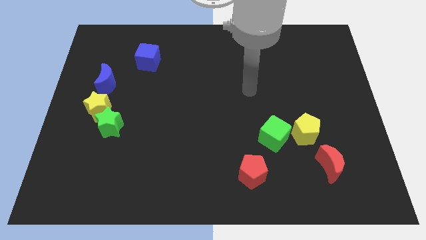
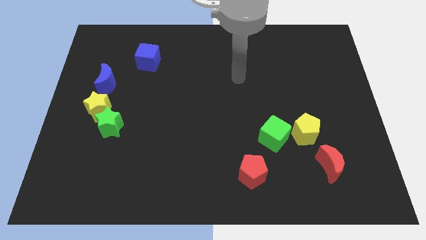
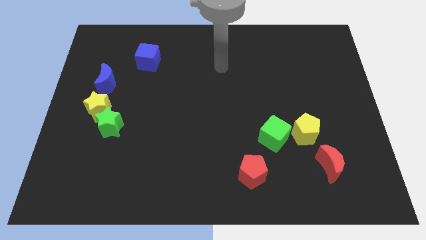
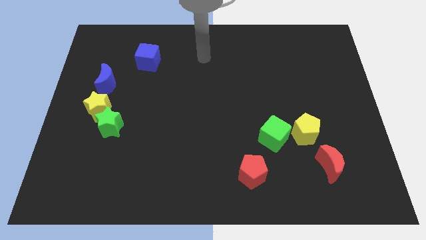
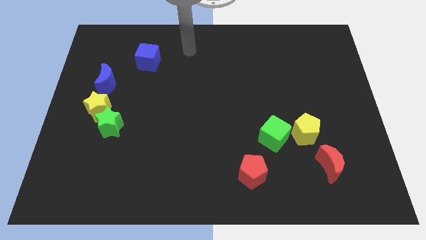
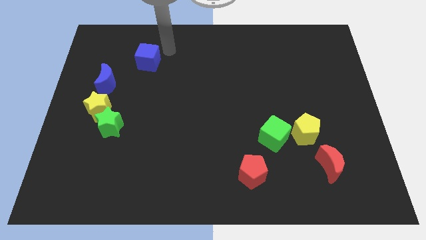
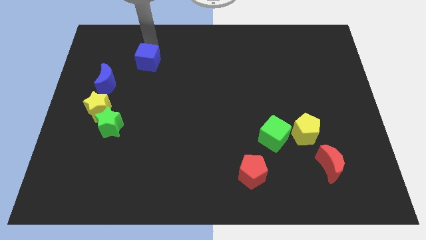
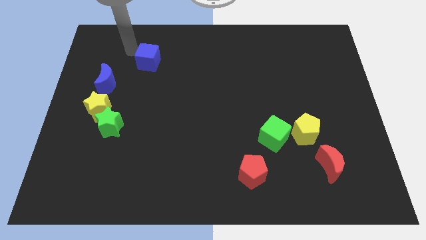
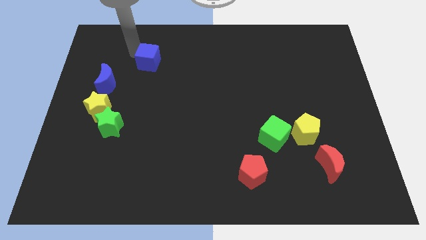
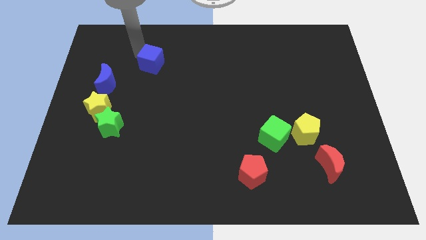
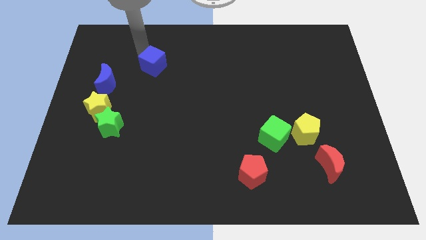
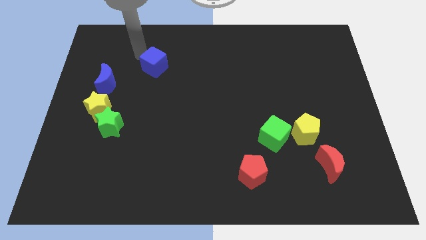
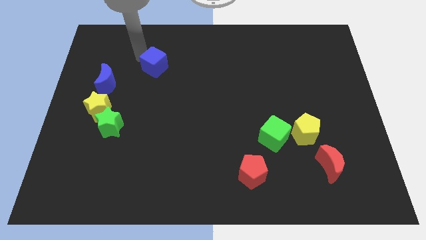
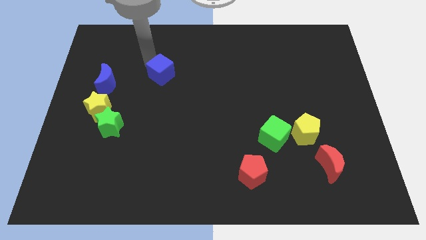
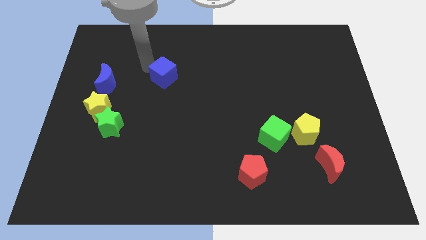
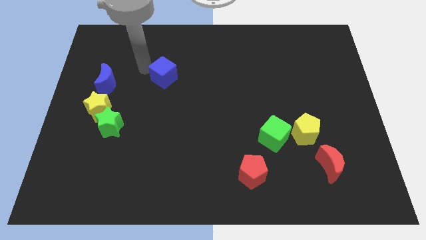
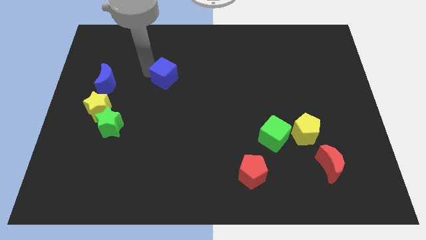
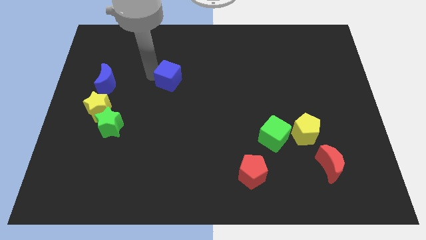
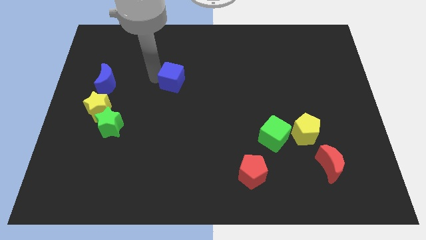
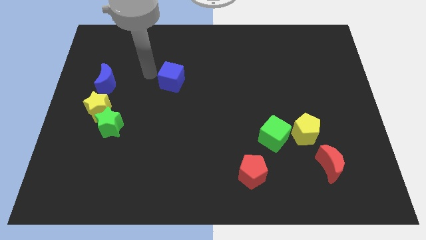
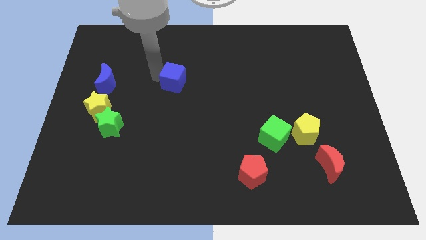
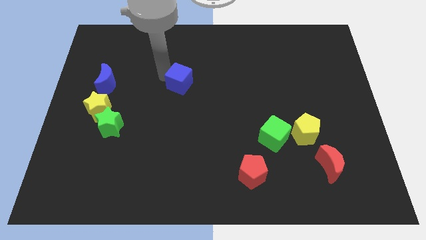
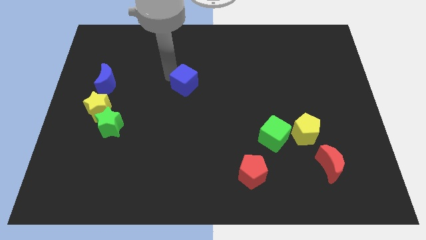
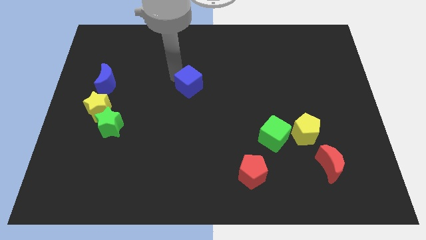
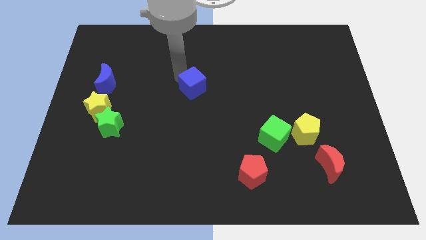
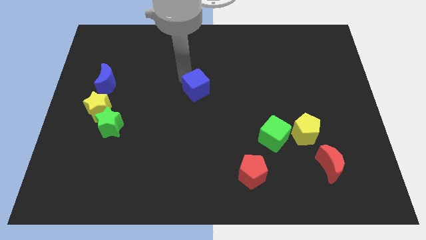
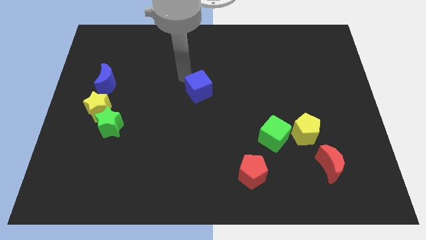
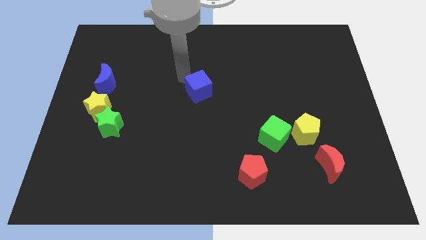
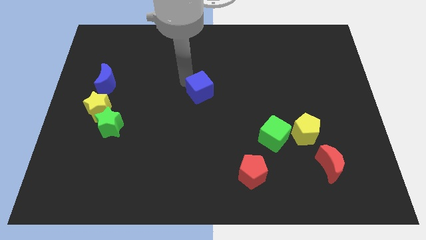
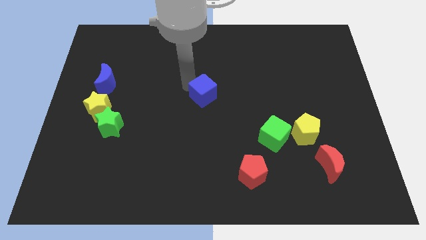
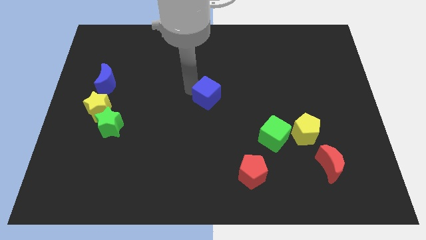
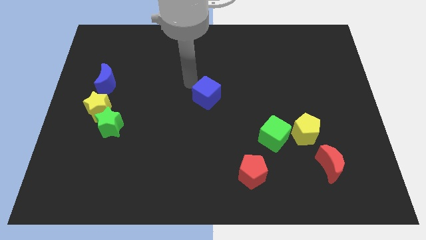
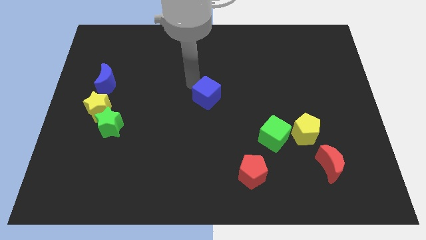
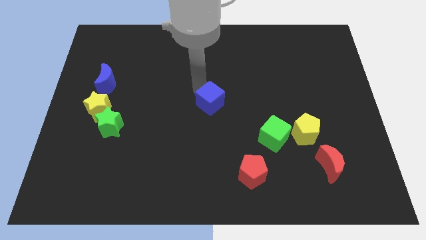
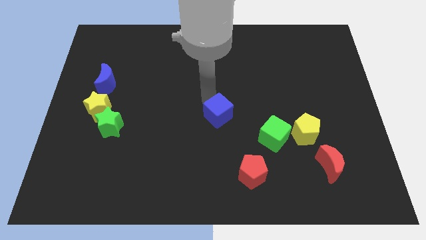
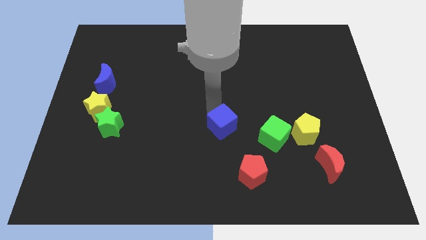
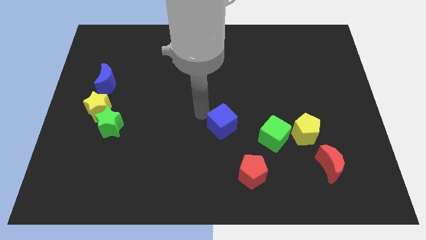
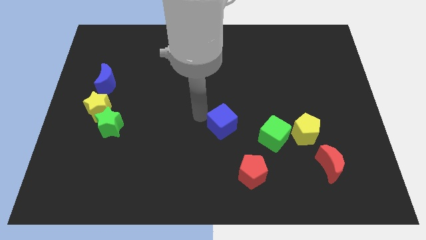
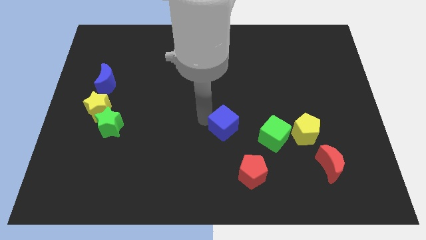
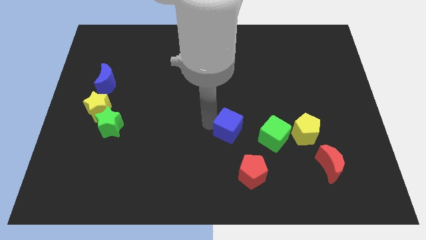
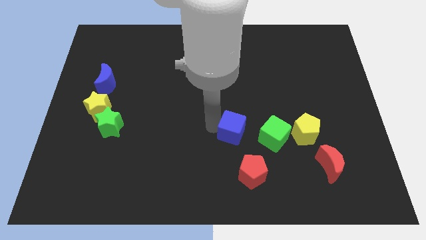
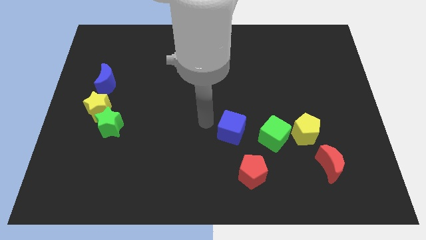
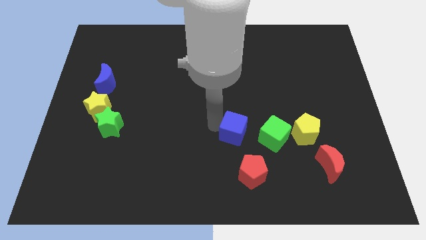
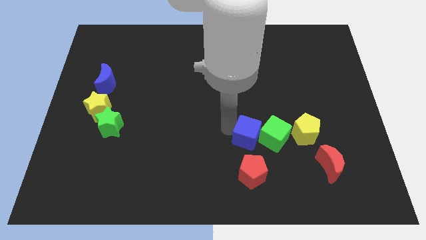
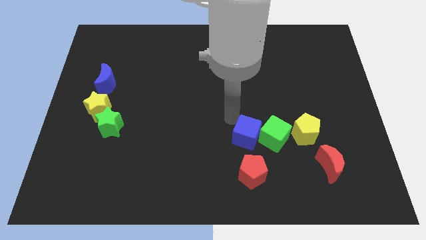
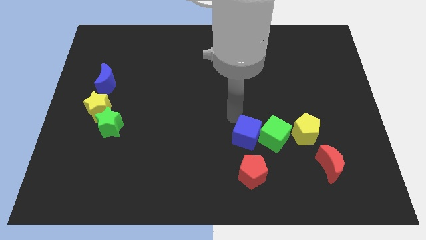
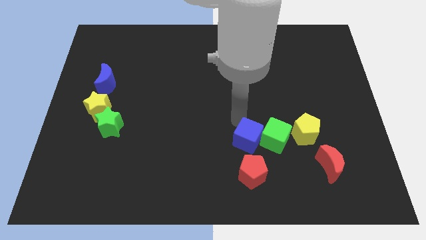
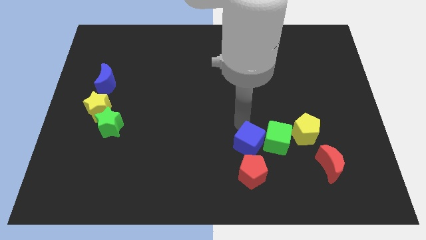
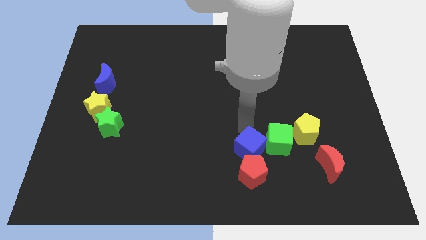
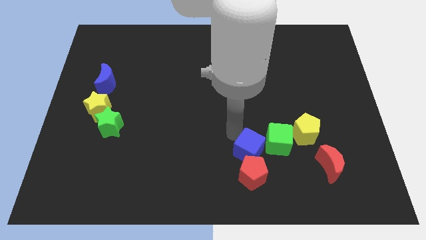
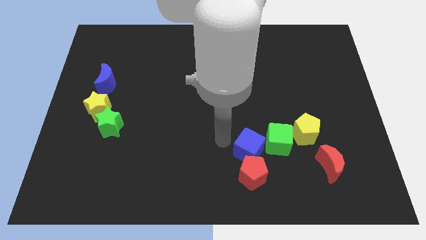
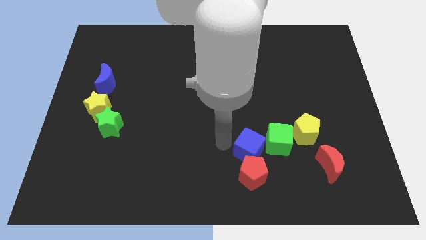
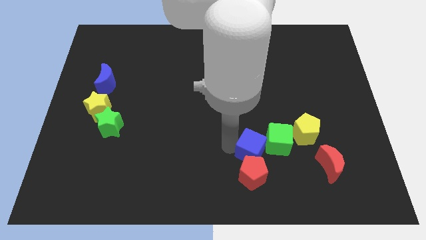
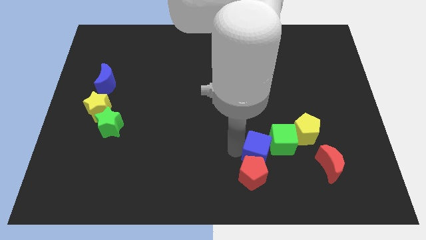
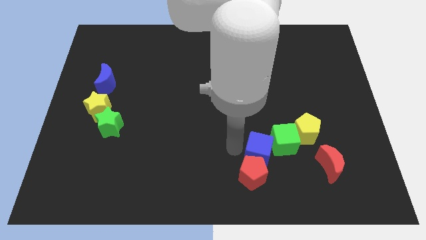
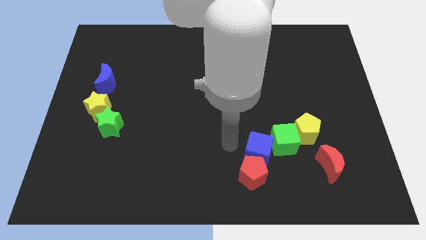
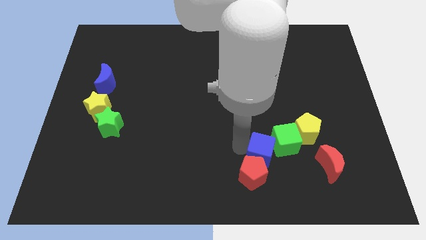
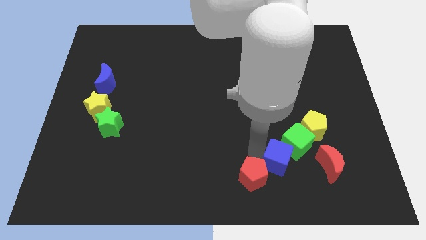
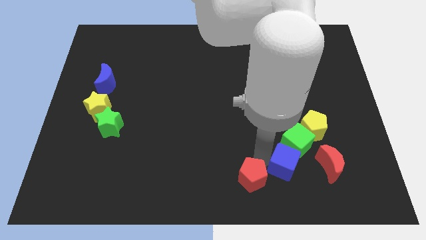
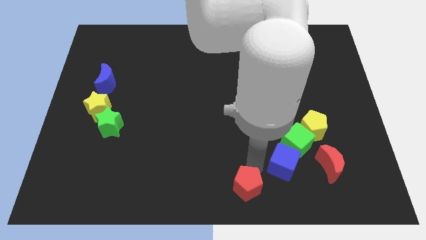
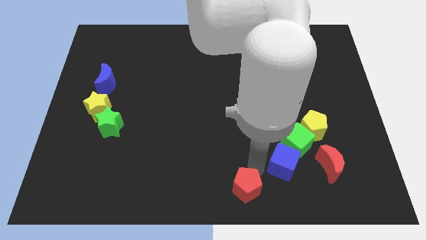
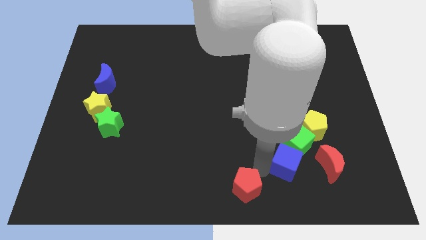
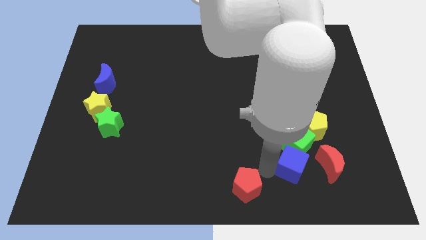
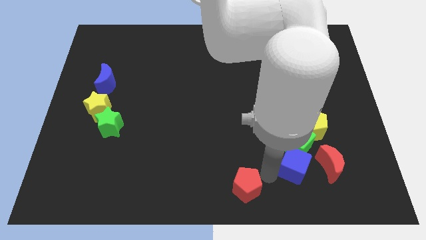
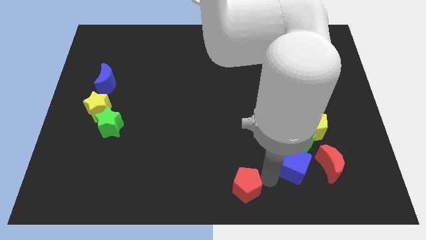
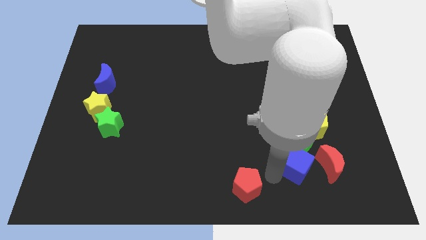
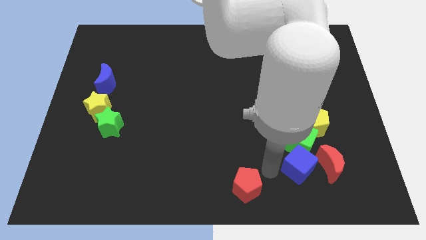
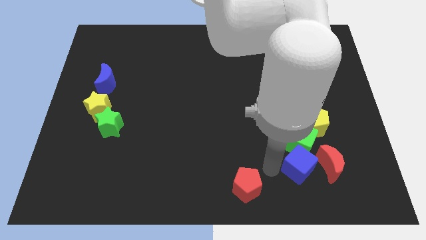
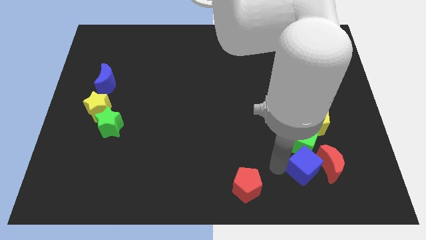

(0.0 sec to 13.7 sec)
slide the blue cube towards the red moon

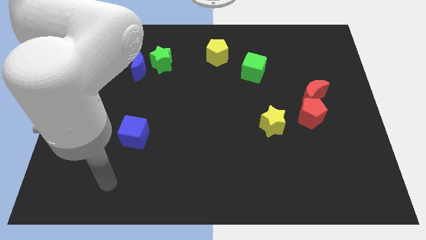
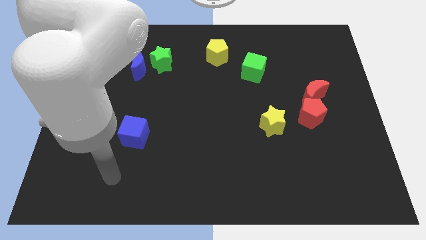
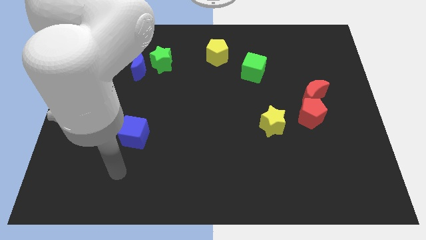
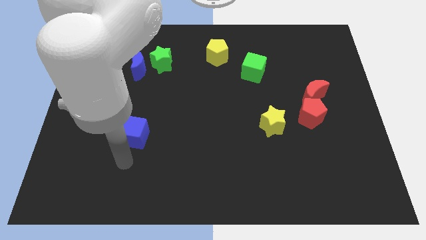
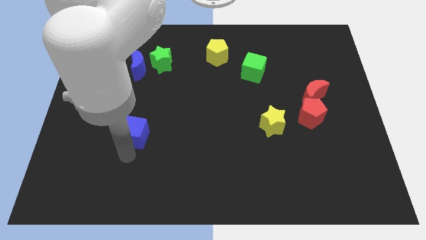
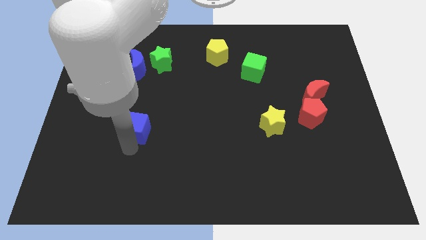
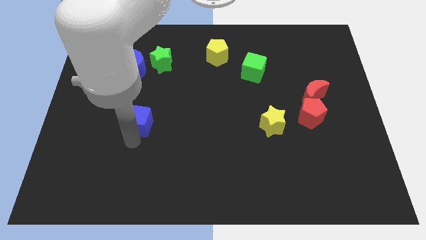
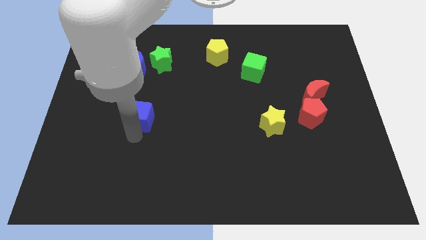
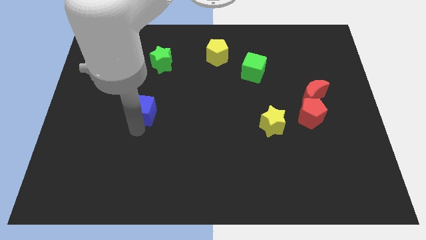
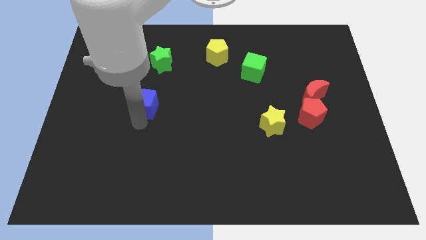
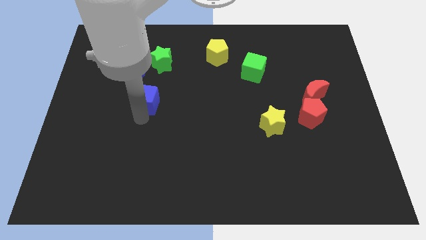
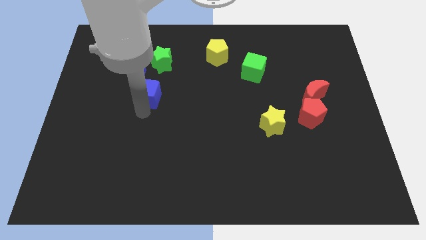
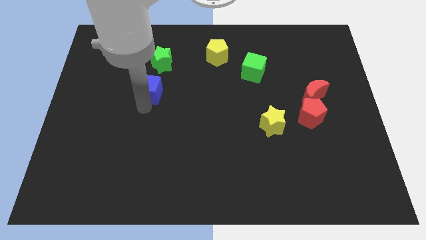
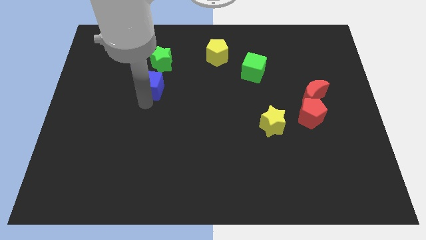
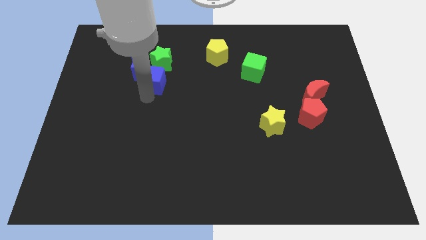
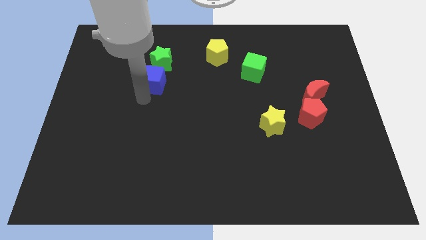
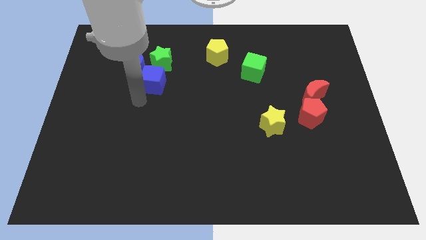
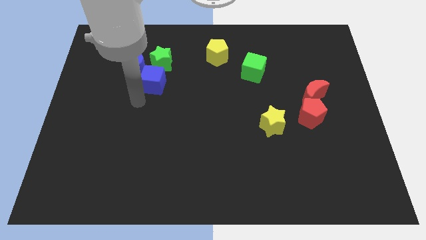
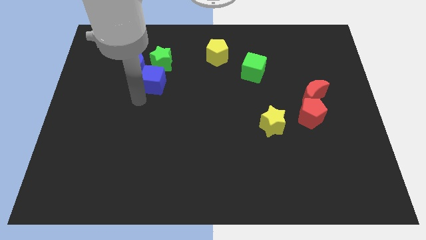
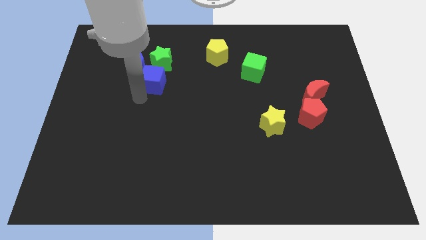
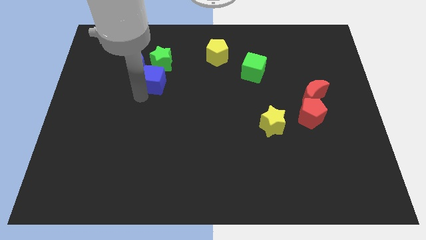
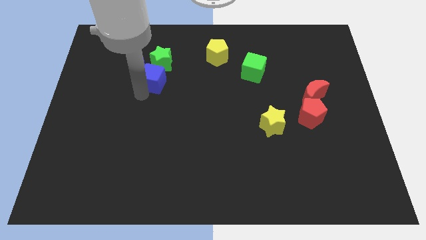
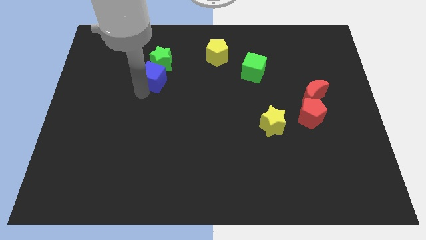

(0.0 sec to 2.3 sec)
slide the blue cube close to the green star
